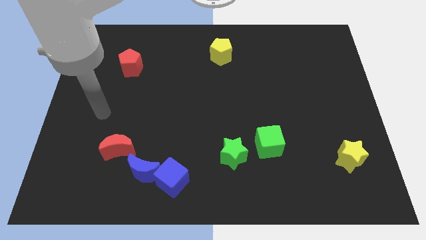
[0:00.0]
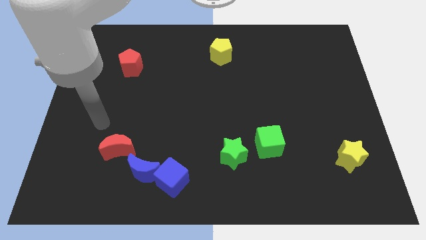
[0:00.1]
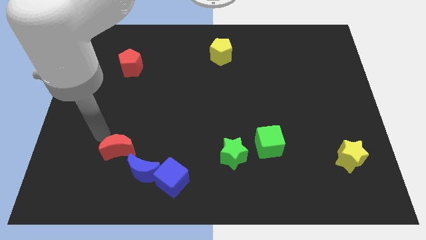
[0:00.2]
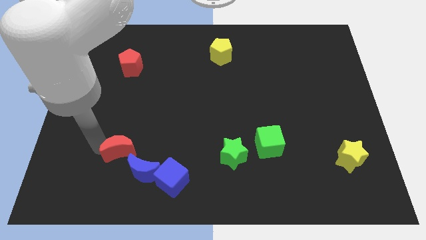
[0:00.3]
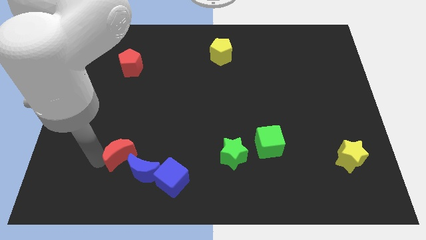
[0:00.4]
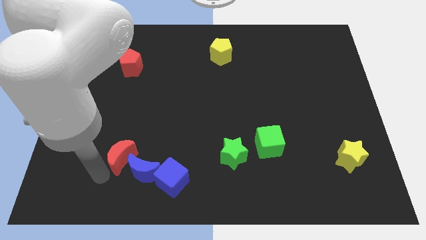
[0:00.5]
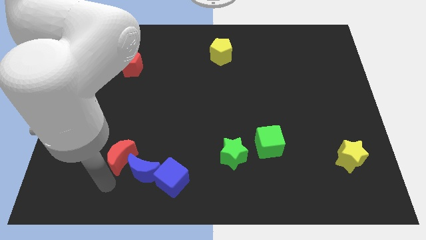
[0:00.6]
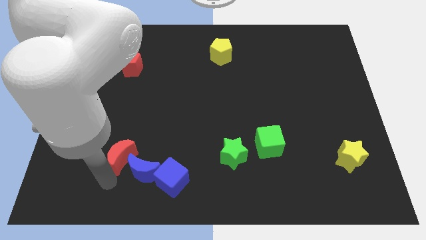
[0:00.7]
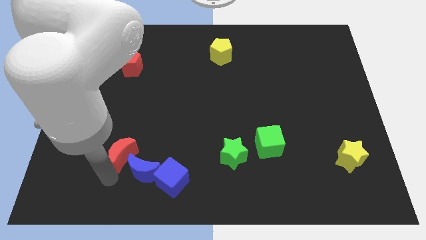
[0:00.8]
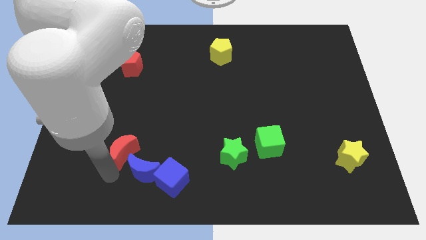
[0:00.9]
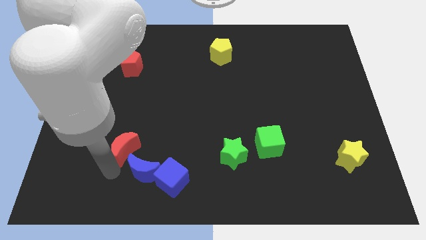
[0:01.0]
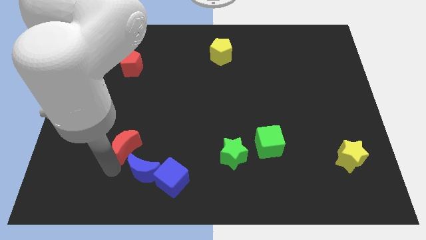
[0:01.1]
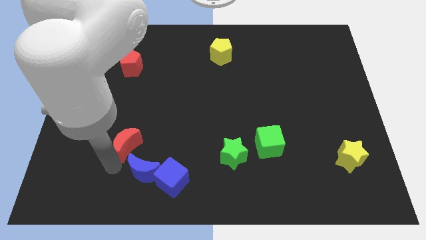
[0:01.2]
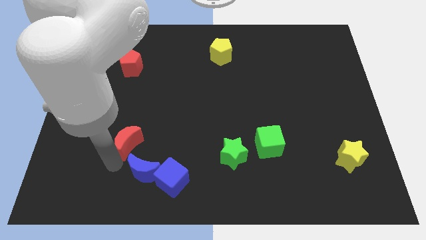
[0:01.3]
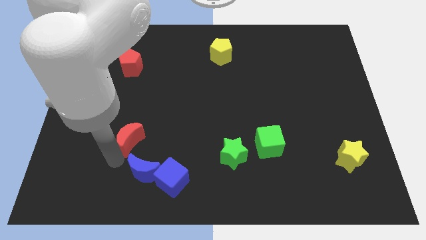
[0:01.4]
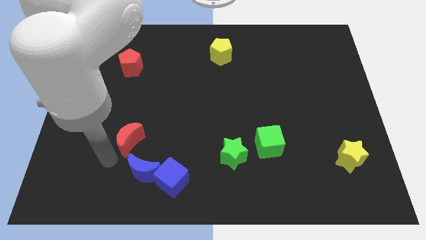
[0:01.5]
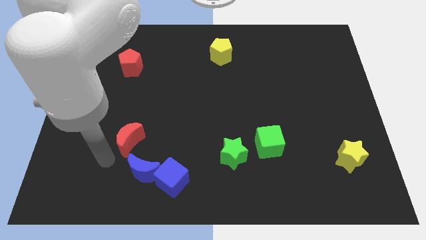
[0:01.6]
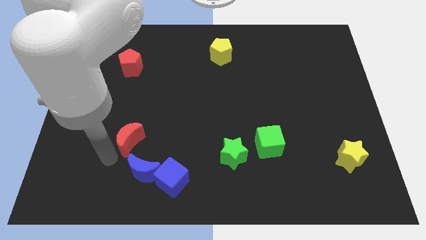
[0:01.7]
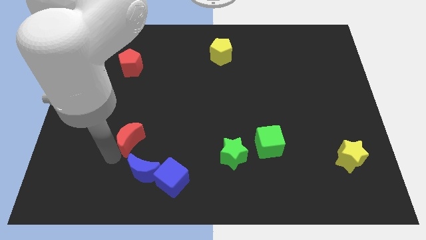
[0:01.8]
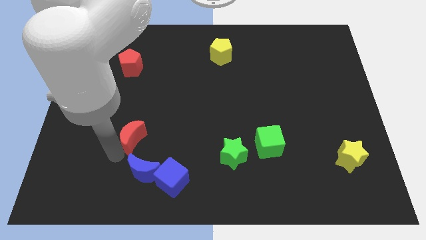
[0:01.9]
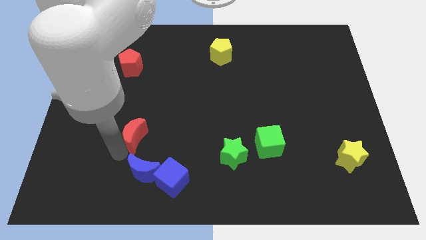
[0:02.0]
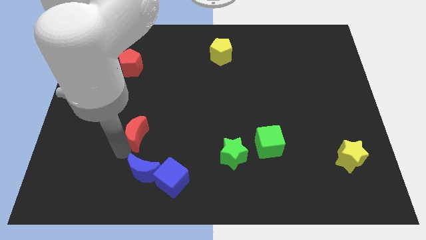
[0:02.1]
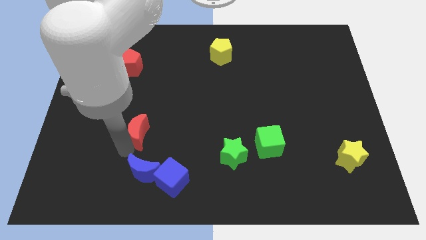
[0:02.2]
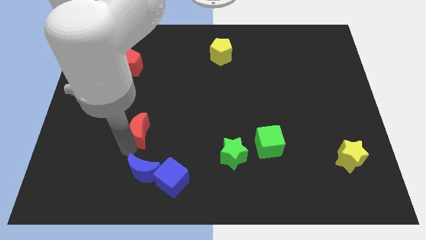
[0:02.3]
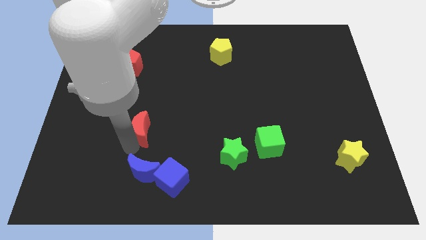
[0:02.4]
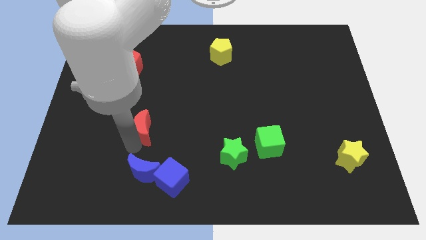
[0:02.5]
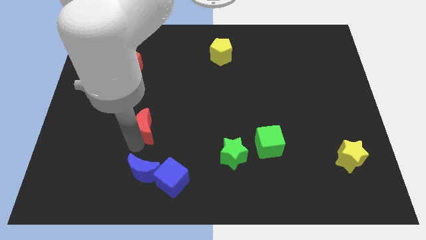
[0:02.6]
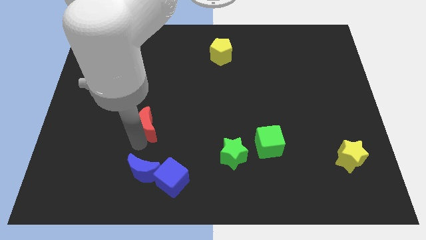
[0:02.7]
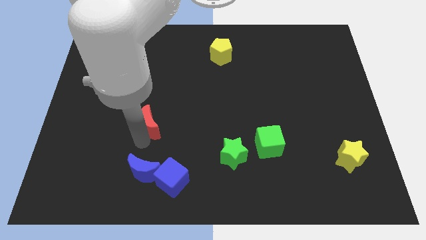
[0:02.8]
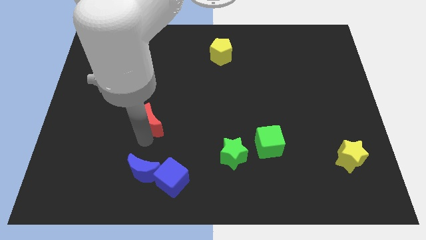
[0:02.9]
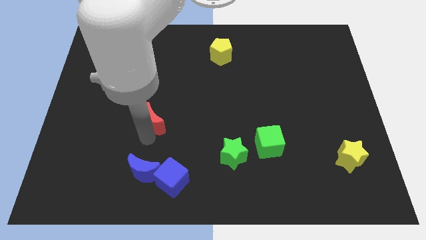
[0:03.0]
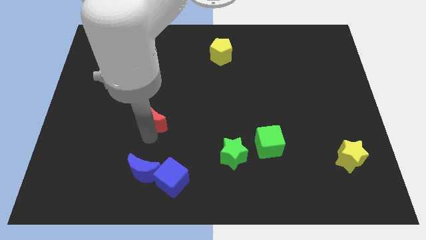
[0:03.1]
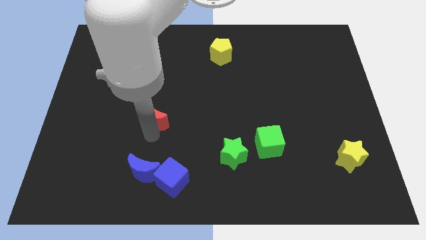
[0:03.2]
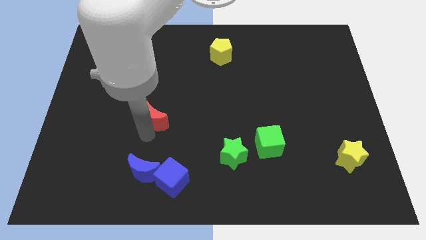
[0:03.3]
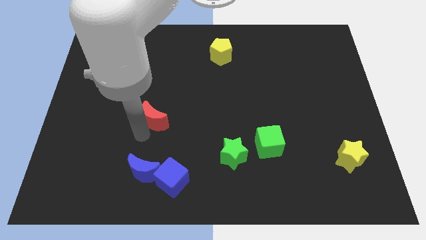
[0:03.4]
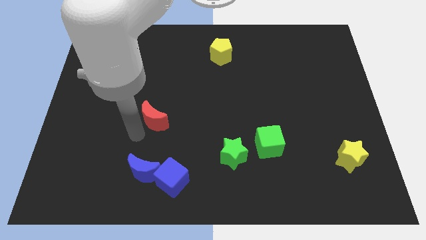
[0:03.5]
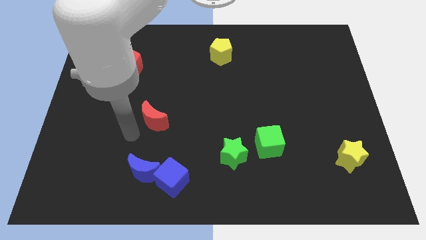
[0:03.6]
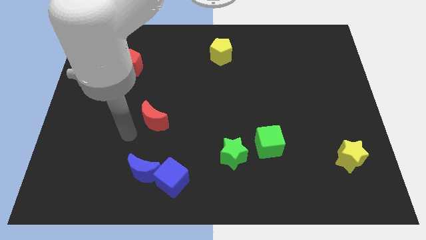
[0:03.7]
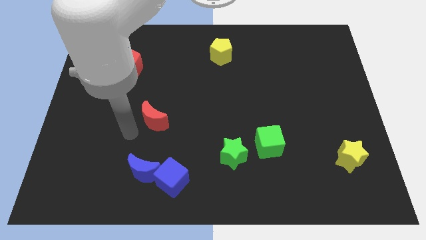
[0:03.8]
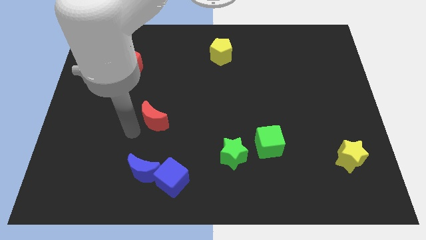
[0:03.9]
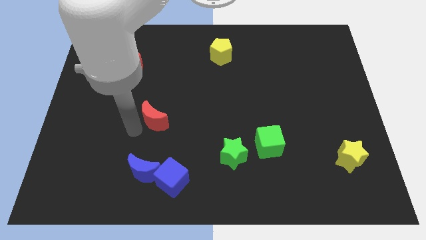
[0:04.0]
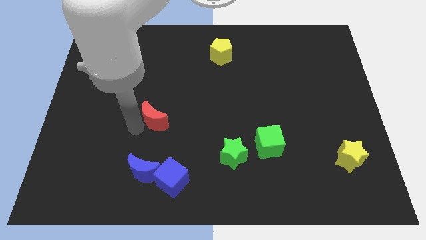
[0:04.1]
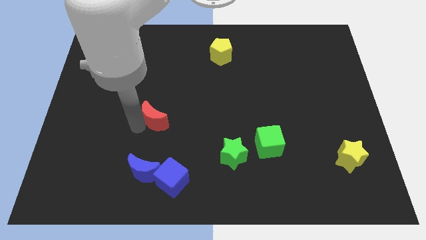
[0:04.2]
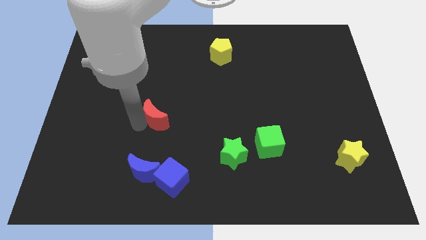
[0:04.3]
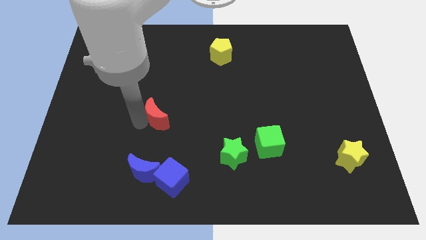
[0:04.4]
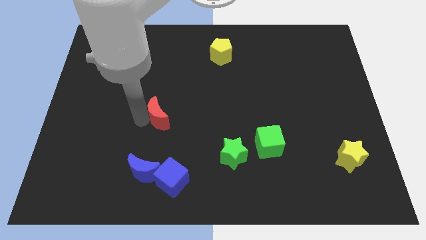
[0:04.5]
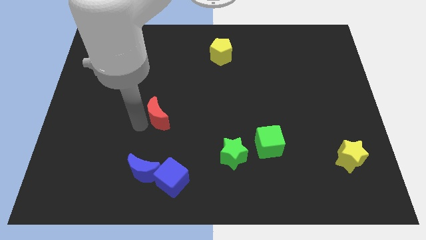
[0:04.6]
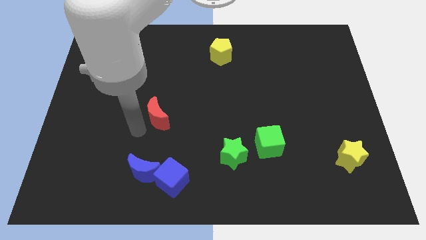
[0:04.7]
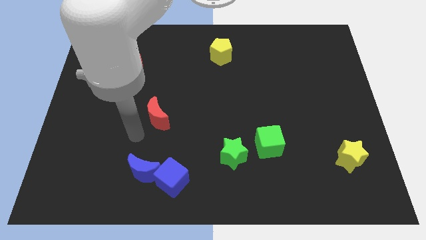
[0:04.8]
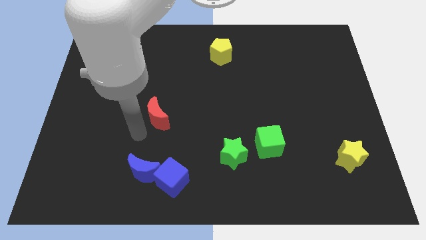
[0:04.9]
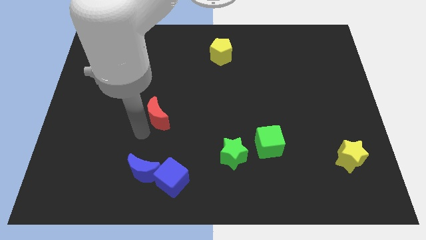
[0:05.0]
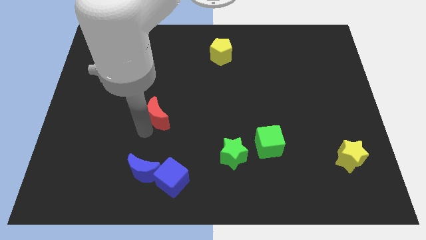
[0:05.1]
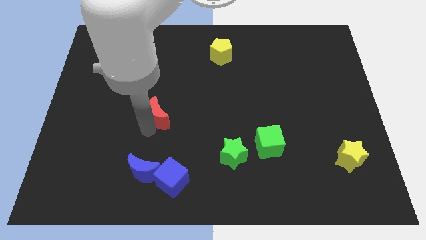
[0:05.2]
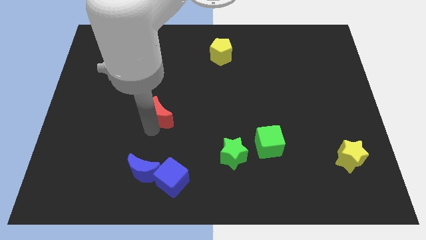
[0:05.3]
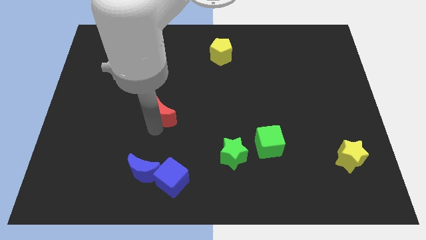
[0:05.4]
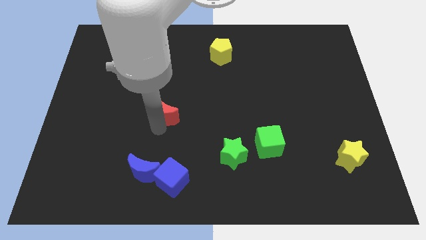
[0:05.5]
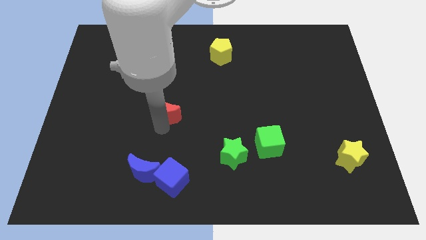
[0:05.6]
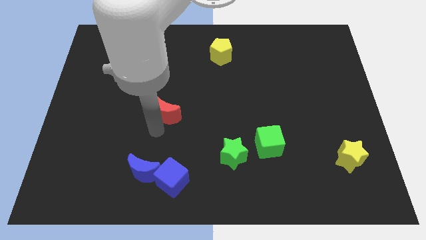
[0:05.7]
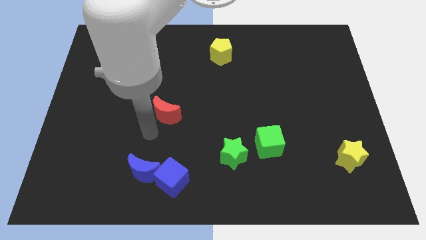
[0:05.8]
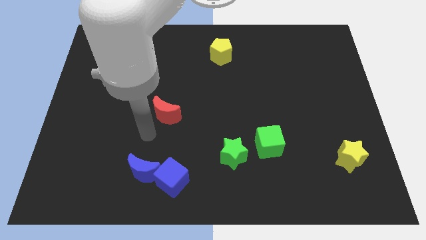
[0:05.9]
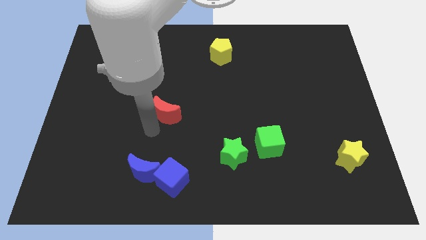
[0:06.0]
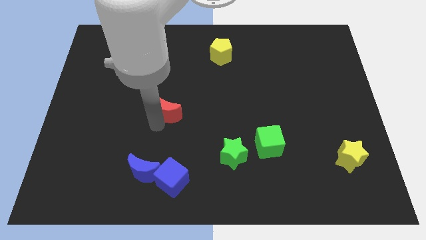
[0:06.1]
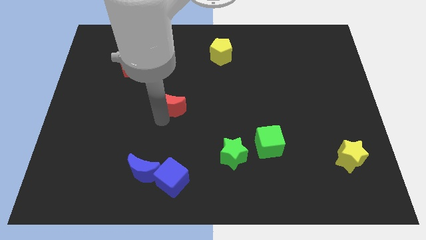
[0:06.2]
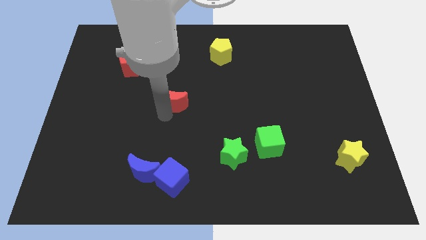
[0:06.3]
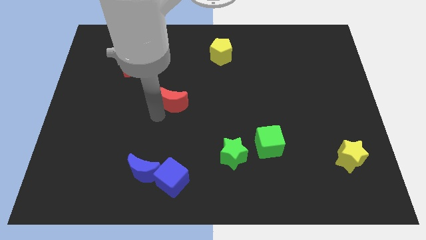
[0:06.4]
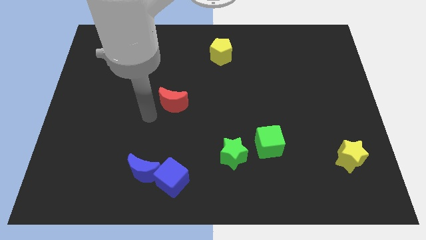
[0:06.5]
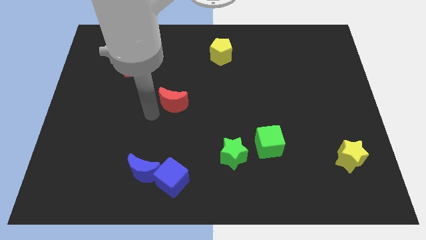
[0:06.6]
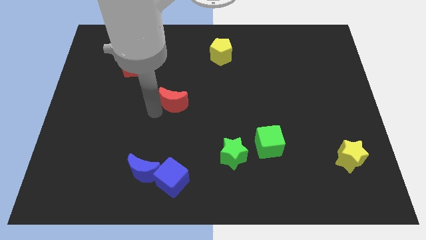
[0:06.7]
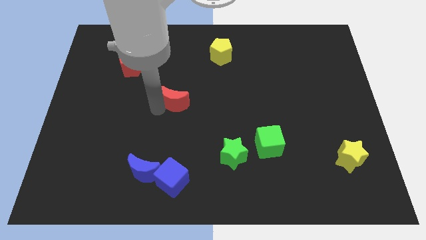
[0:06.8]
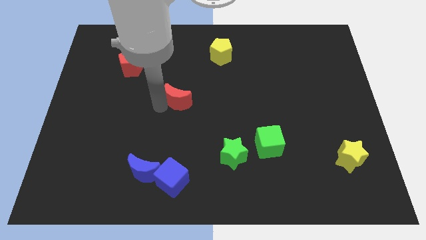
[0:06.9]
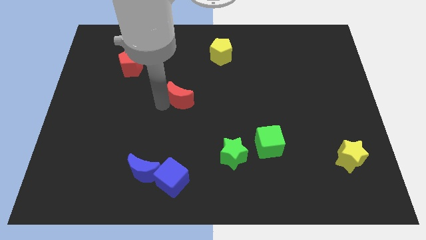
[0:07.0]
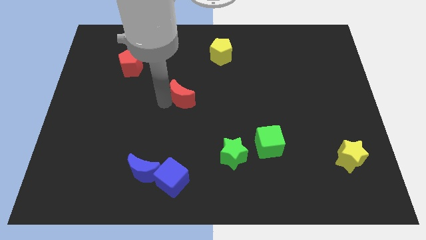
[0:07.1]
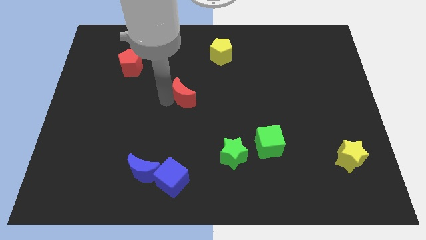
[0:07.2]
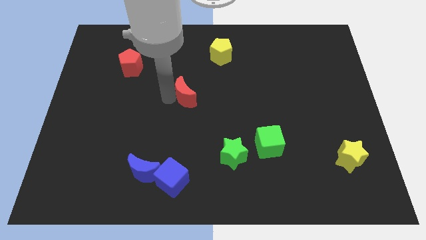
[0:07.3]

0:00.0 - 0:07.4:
push the red moon diagonally up and right

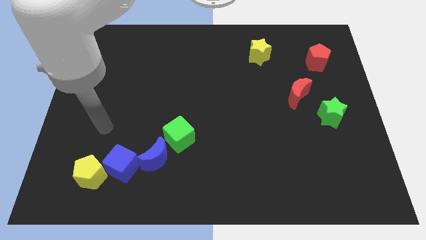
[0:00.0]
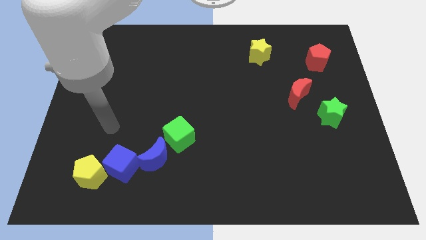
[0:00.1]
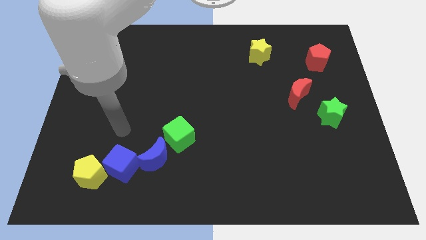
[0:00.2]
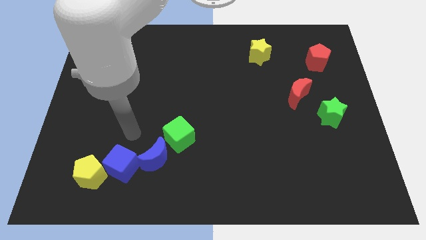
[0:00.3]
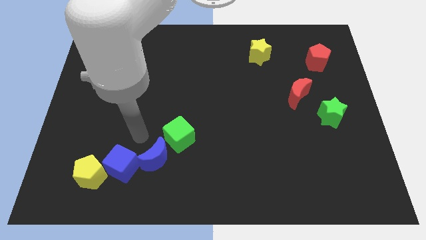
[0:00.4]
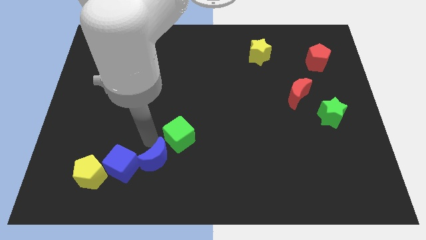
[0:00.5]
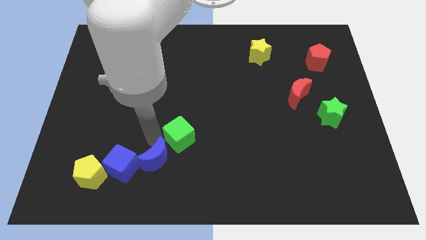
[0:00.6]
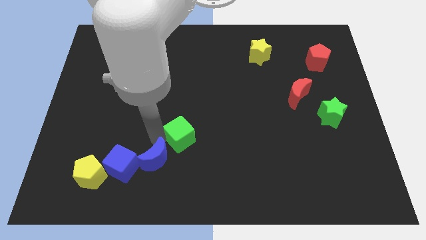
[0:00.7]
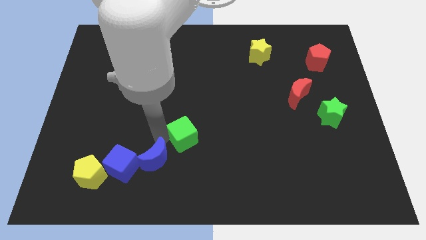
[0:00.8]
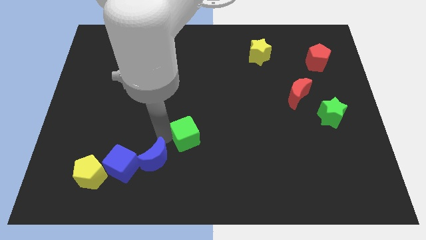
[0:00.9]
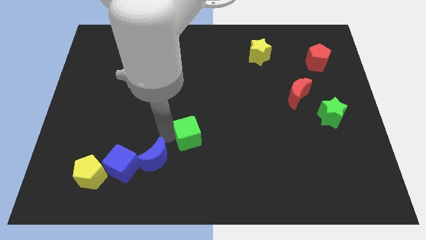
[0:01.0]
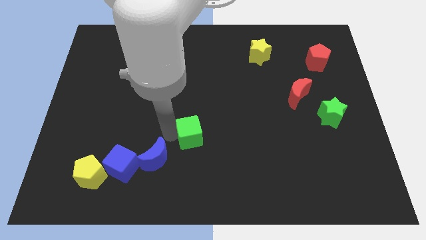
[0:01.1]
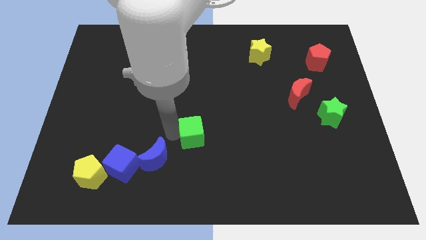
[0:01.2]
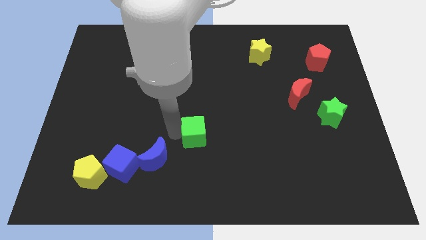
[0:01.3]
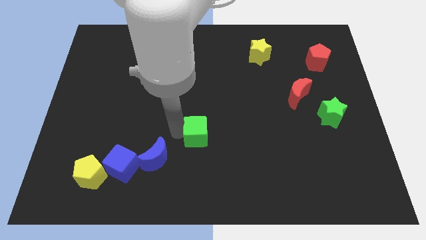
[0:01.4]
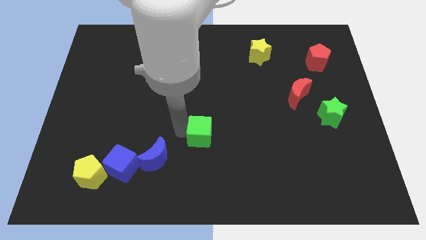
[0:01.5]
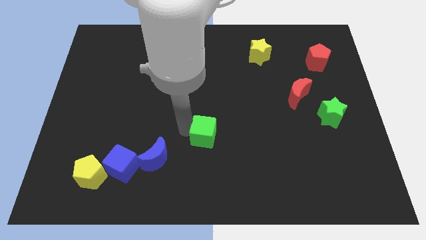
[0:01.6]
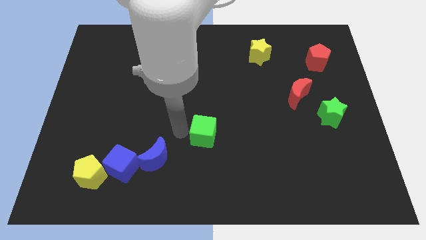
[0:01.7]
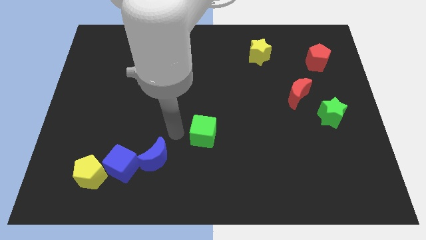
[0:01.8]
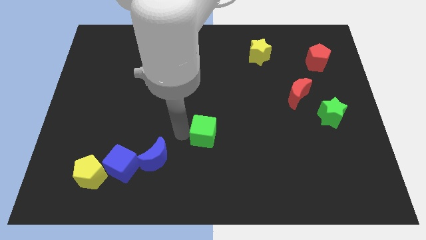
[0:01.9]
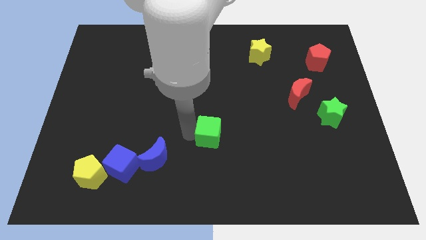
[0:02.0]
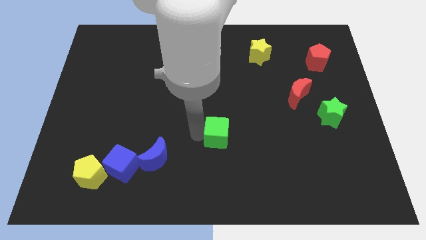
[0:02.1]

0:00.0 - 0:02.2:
push the green cube to the right a little
